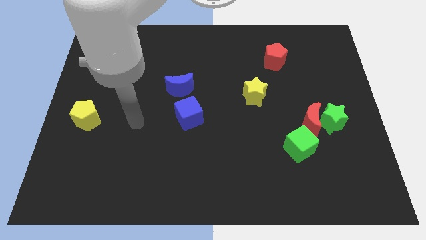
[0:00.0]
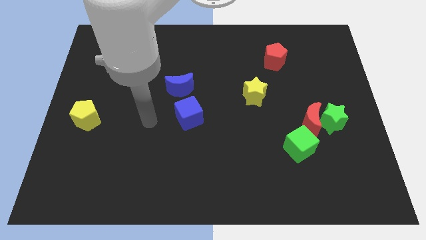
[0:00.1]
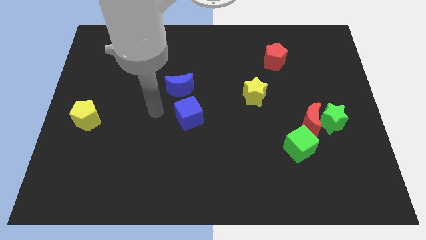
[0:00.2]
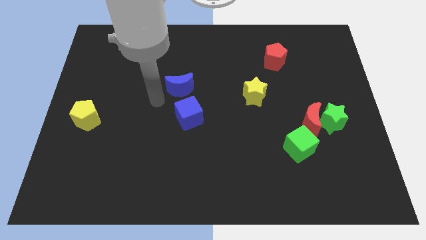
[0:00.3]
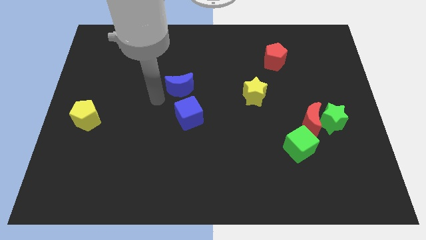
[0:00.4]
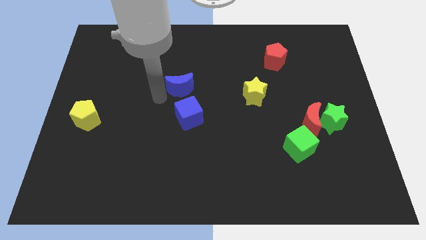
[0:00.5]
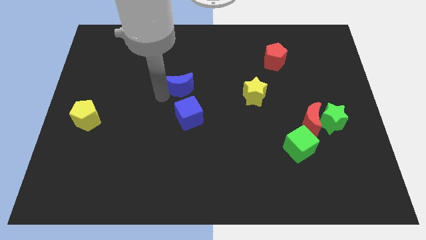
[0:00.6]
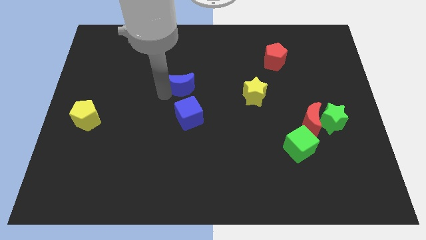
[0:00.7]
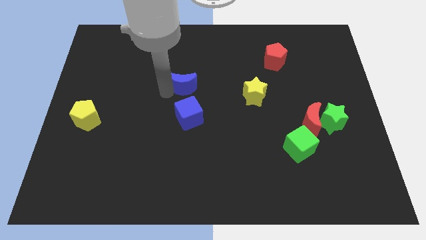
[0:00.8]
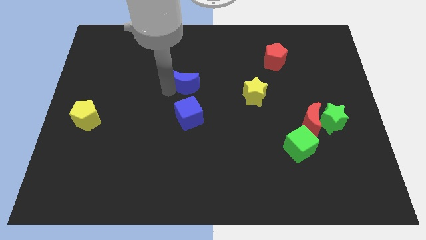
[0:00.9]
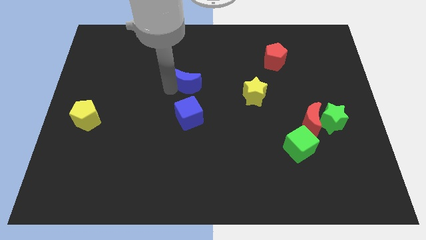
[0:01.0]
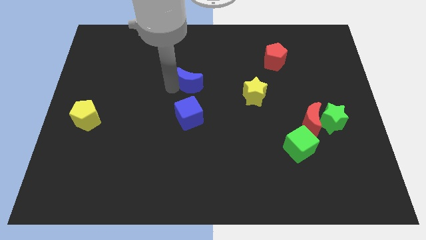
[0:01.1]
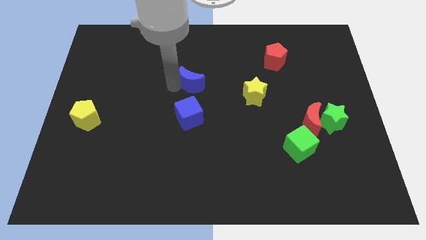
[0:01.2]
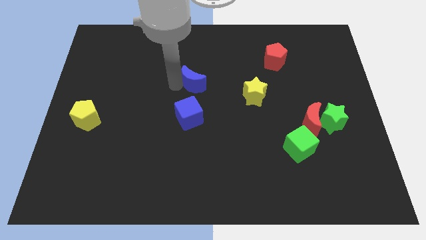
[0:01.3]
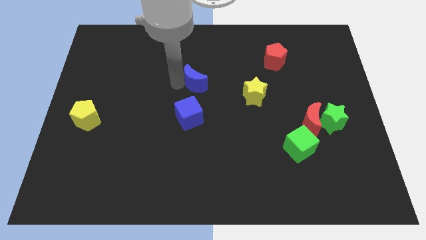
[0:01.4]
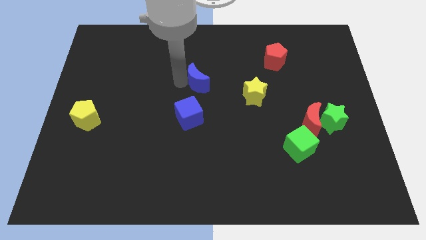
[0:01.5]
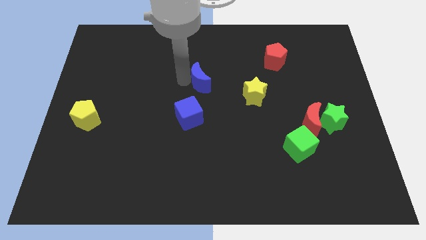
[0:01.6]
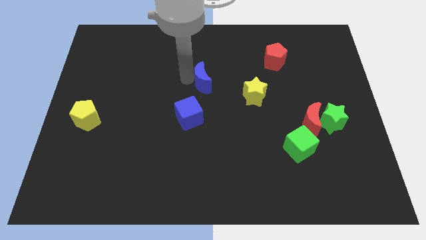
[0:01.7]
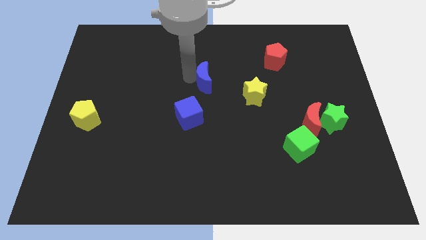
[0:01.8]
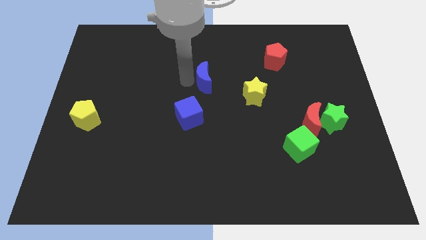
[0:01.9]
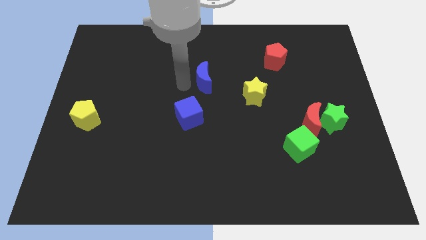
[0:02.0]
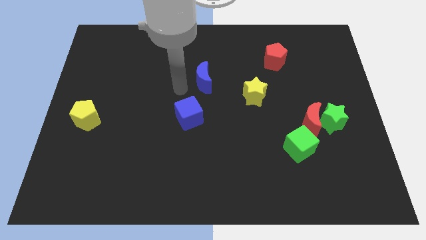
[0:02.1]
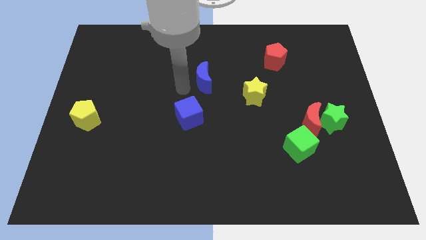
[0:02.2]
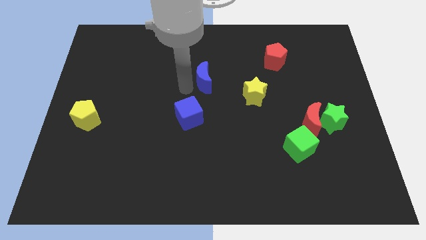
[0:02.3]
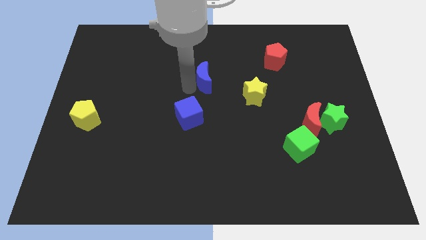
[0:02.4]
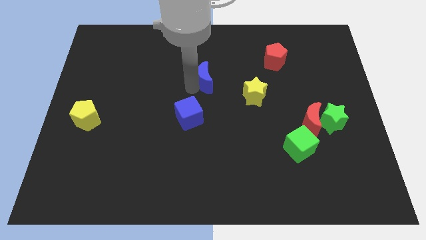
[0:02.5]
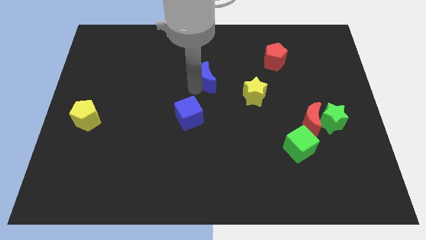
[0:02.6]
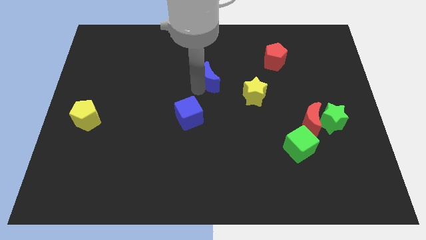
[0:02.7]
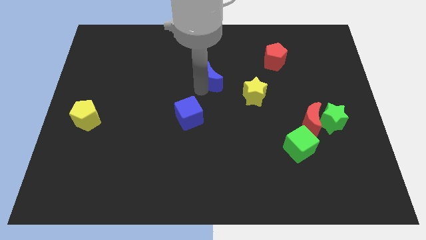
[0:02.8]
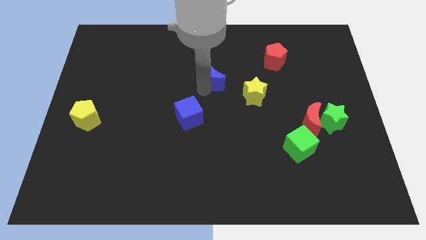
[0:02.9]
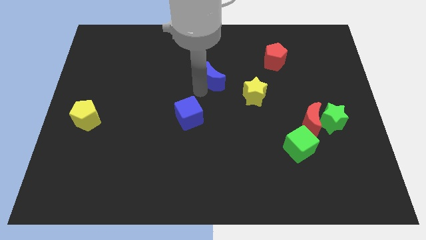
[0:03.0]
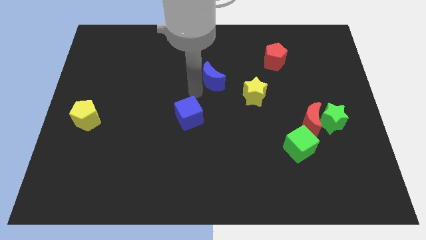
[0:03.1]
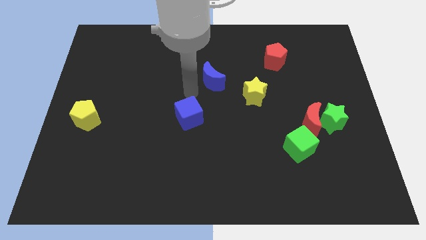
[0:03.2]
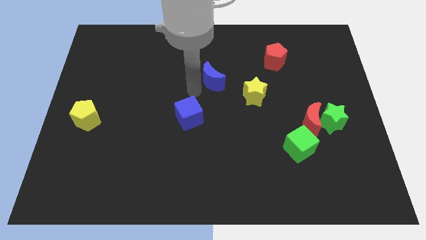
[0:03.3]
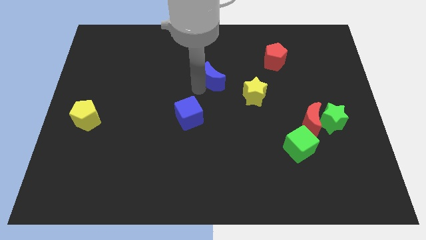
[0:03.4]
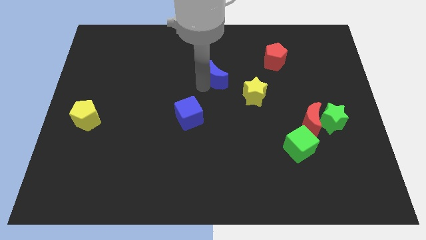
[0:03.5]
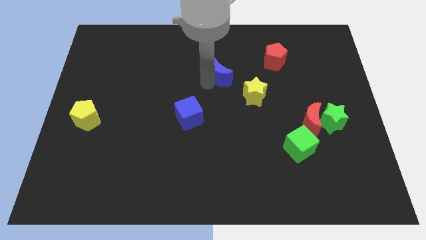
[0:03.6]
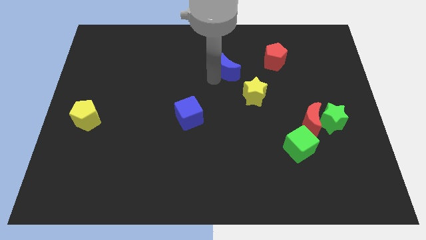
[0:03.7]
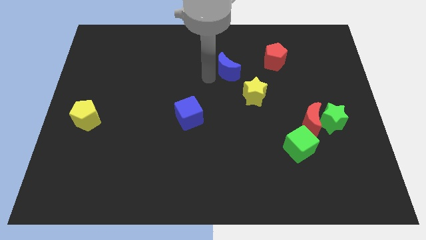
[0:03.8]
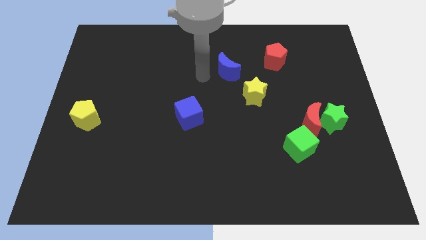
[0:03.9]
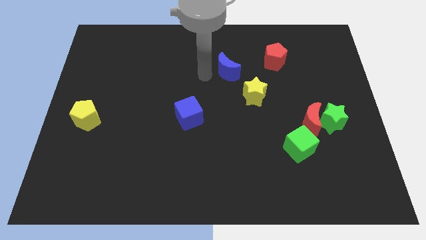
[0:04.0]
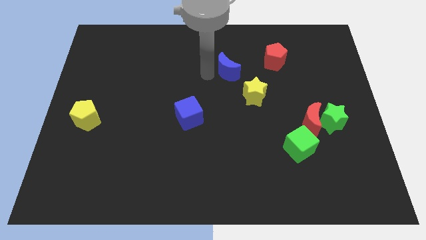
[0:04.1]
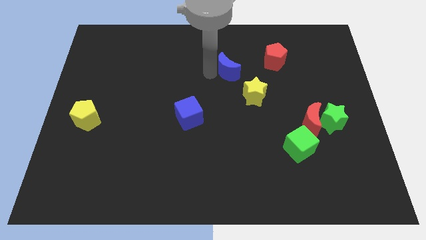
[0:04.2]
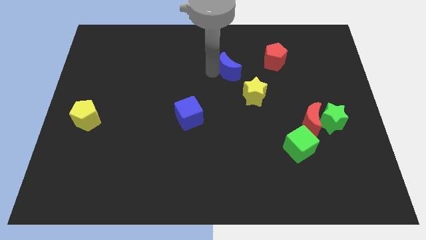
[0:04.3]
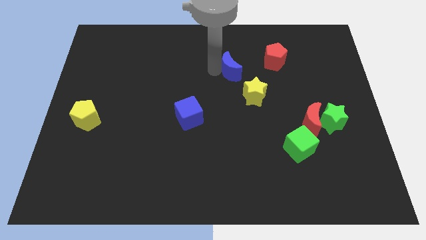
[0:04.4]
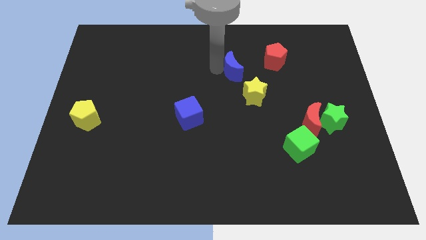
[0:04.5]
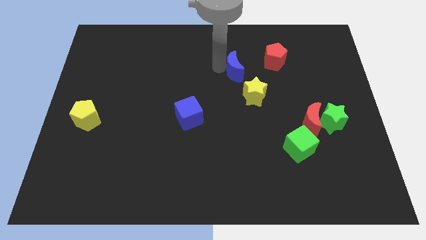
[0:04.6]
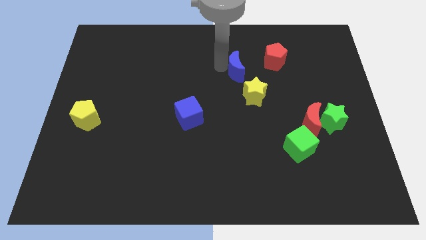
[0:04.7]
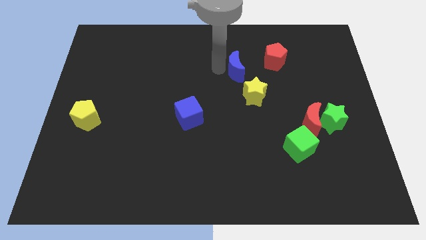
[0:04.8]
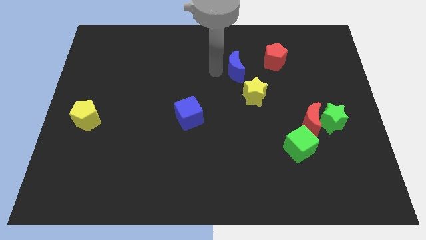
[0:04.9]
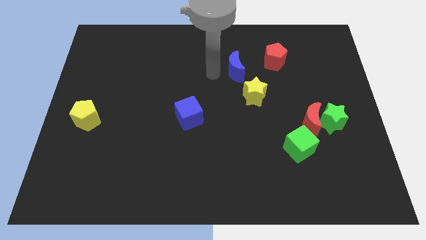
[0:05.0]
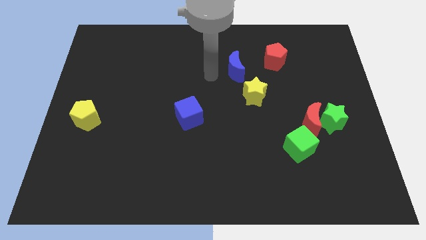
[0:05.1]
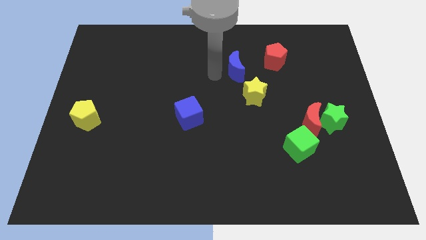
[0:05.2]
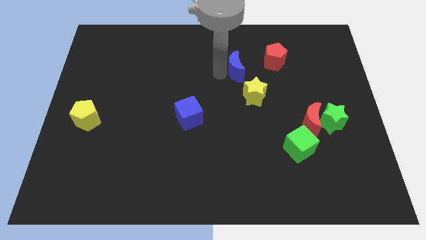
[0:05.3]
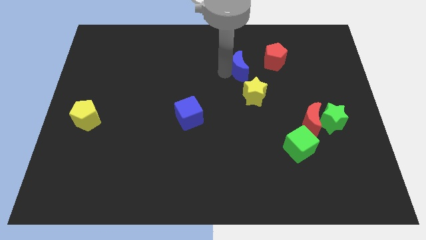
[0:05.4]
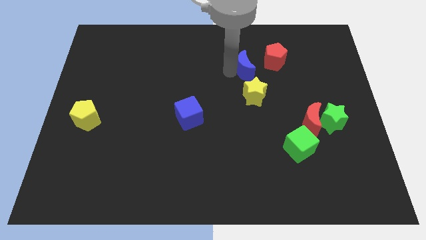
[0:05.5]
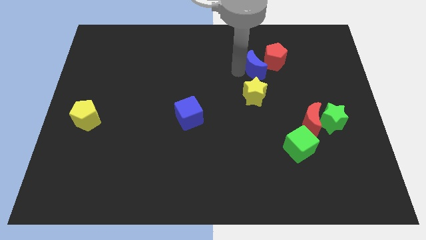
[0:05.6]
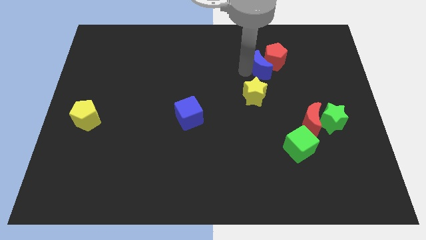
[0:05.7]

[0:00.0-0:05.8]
put the blue moon next to the red pentagon

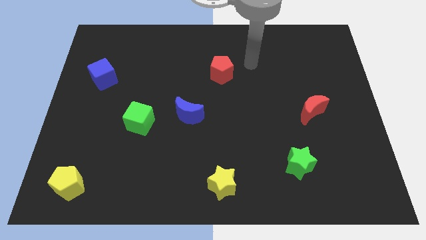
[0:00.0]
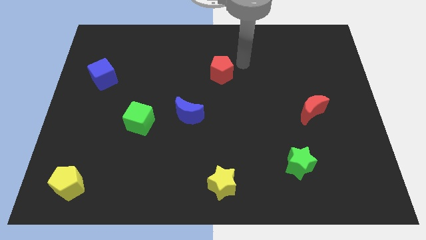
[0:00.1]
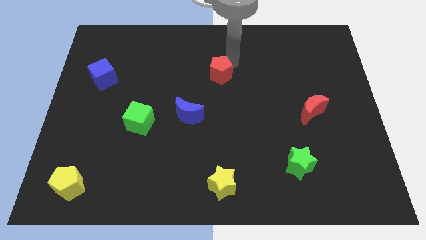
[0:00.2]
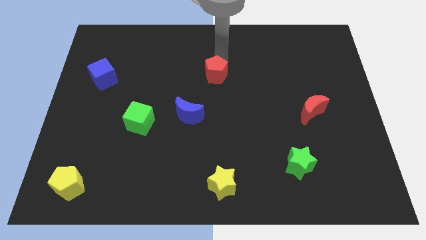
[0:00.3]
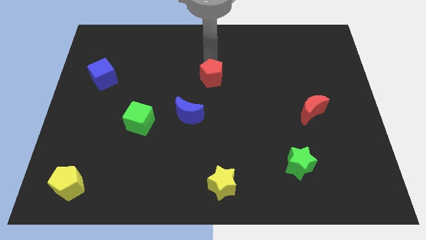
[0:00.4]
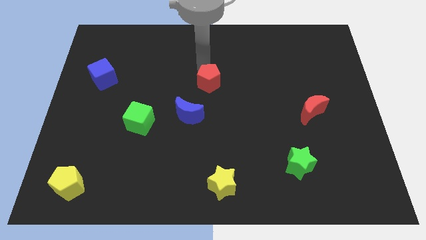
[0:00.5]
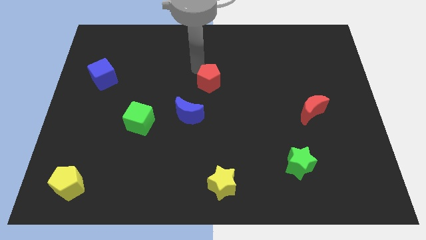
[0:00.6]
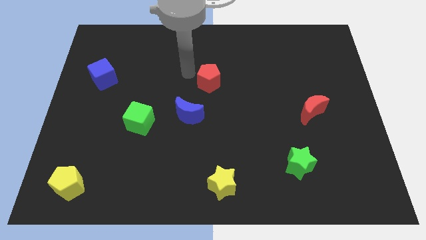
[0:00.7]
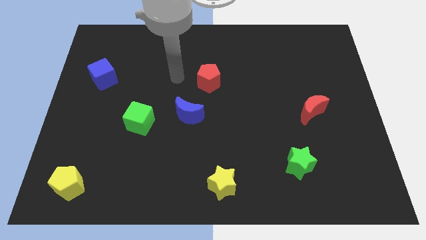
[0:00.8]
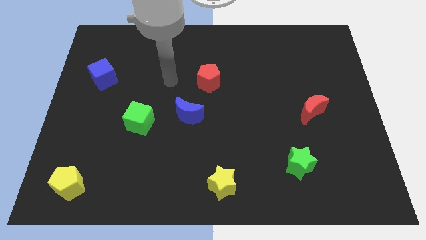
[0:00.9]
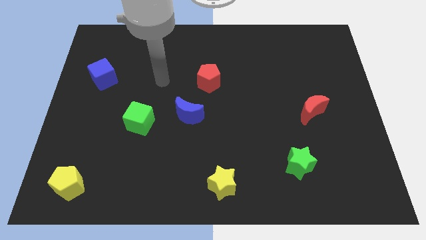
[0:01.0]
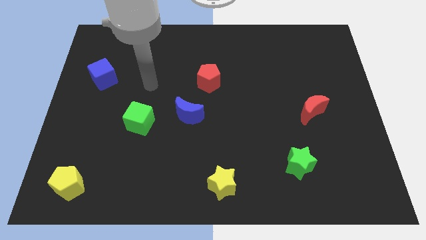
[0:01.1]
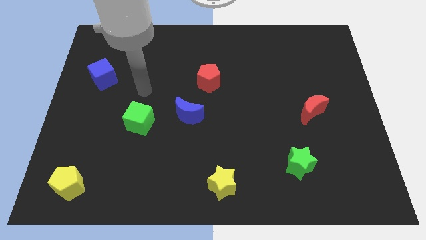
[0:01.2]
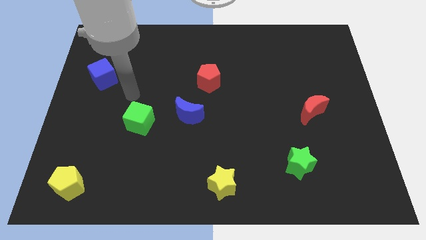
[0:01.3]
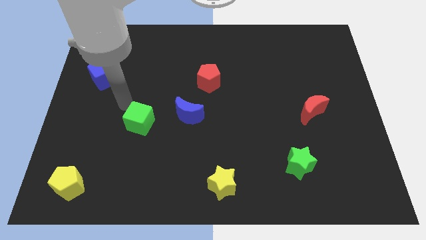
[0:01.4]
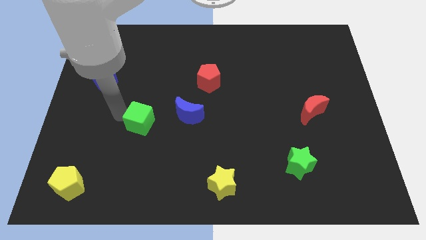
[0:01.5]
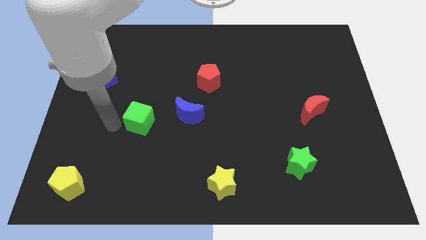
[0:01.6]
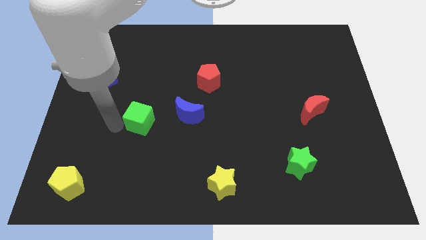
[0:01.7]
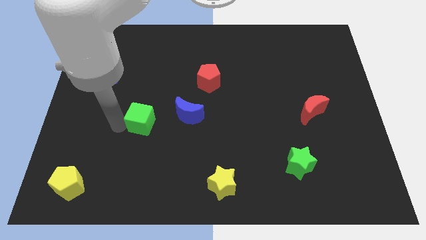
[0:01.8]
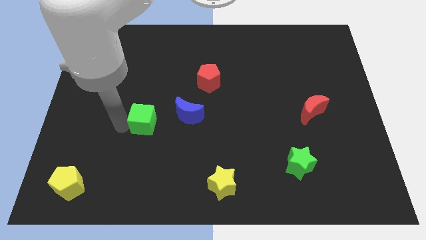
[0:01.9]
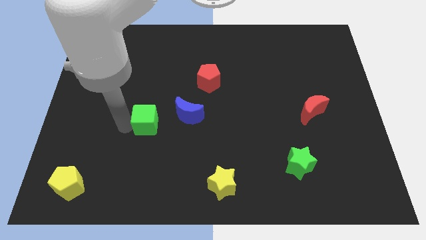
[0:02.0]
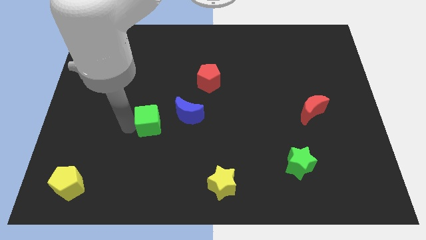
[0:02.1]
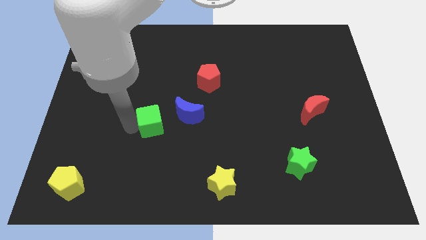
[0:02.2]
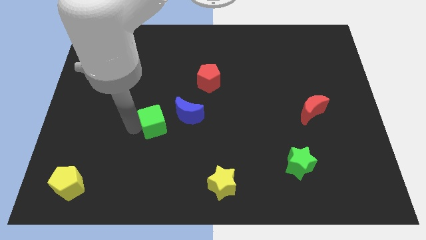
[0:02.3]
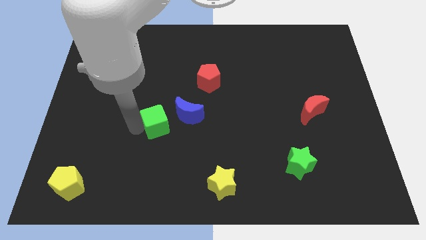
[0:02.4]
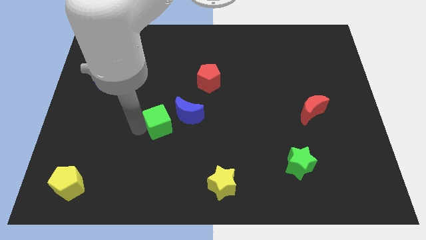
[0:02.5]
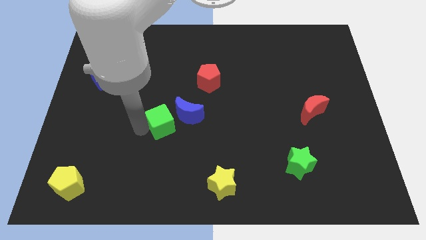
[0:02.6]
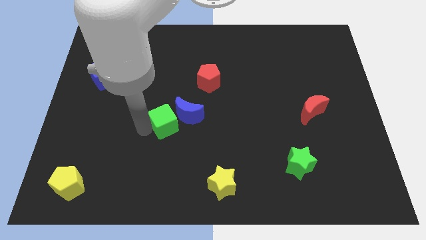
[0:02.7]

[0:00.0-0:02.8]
put the green cube to the blue moon
